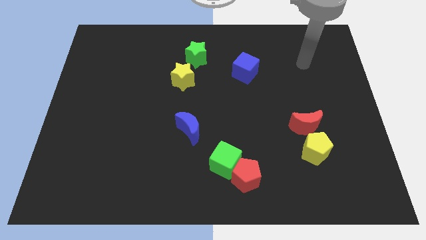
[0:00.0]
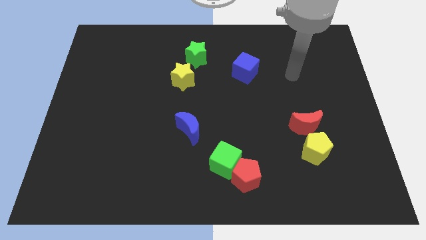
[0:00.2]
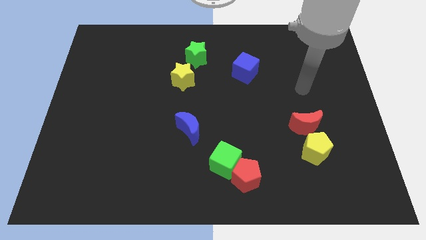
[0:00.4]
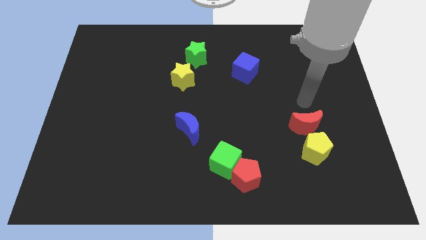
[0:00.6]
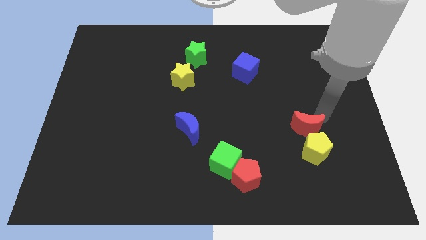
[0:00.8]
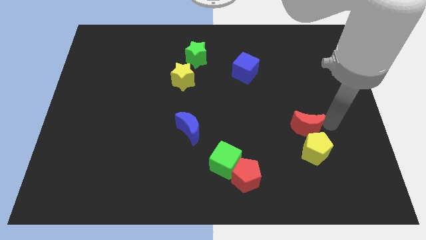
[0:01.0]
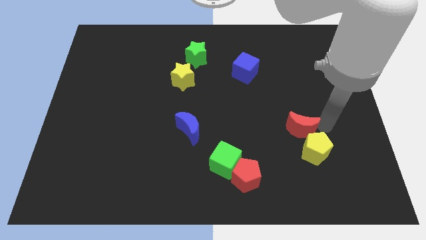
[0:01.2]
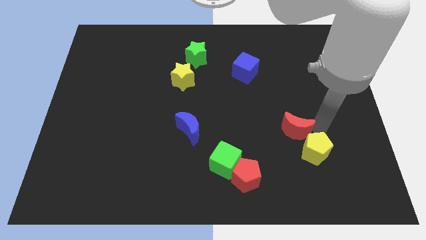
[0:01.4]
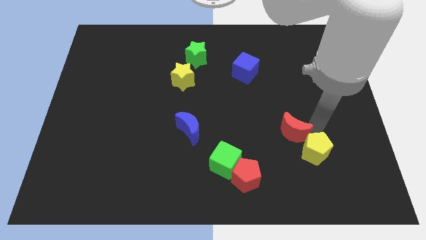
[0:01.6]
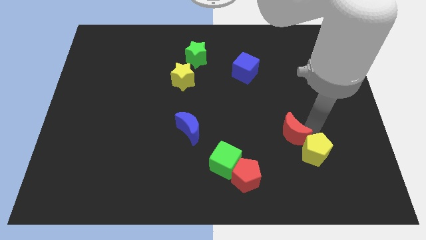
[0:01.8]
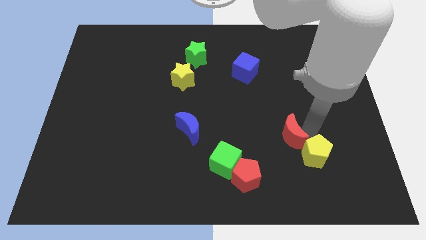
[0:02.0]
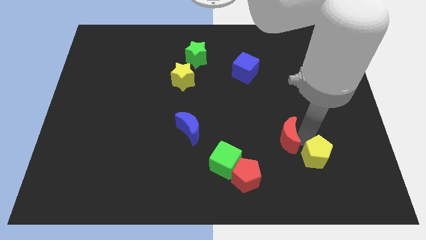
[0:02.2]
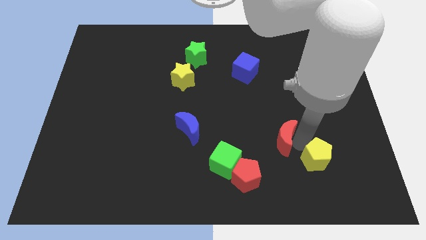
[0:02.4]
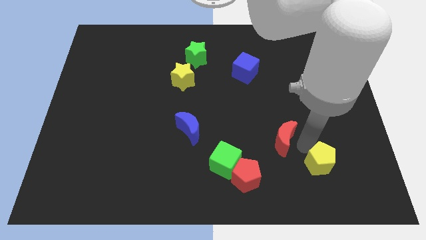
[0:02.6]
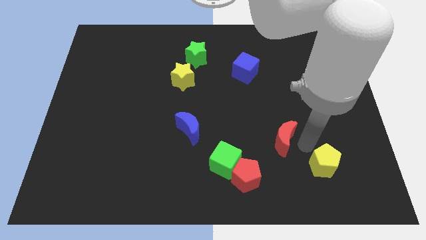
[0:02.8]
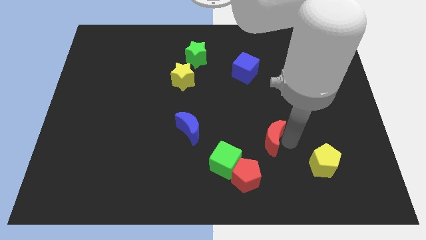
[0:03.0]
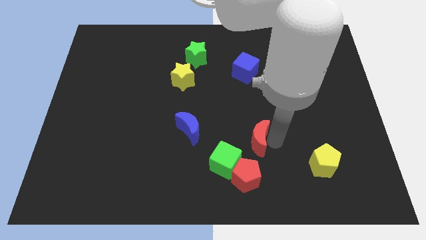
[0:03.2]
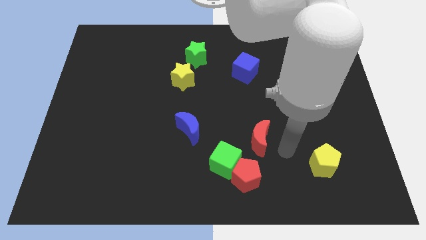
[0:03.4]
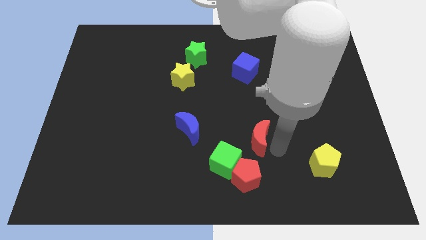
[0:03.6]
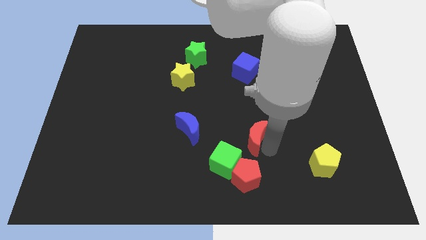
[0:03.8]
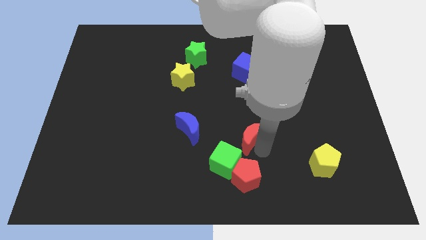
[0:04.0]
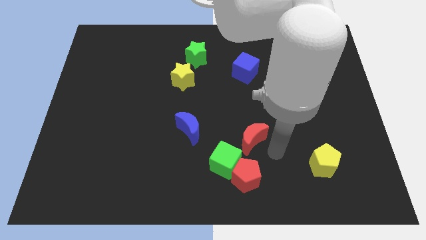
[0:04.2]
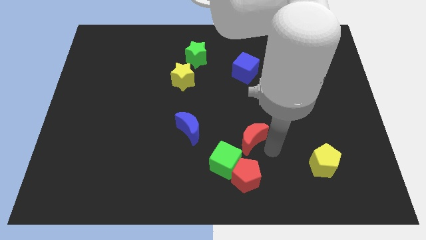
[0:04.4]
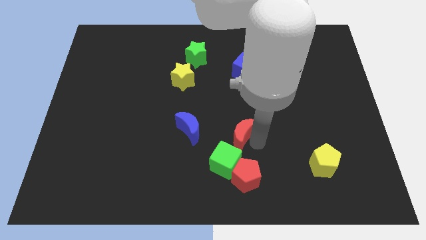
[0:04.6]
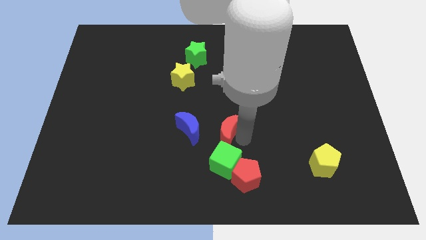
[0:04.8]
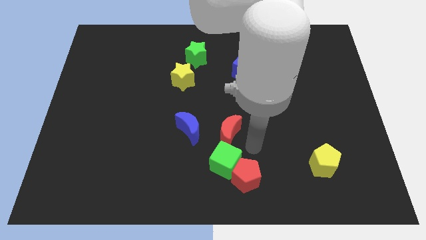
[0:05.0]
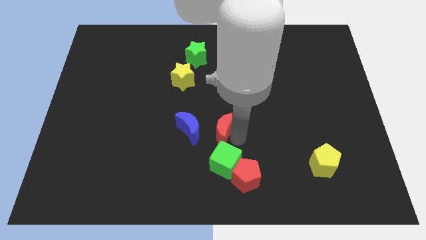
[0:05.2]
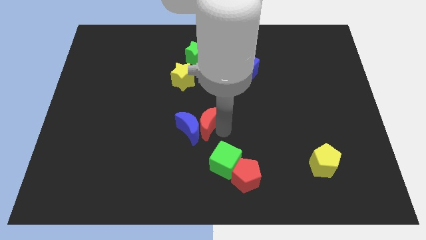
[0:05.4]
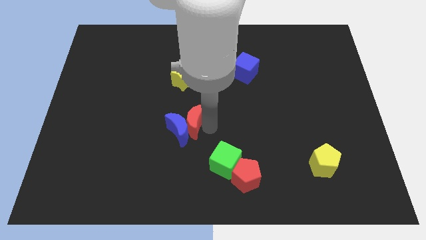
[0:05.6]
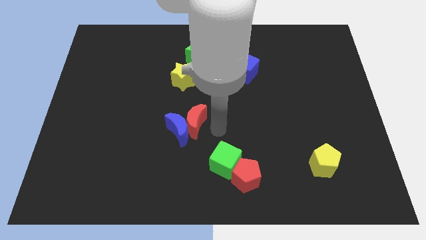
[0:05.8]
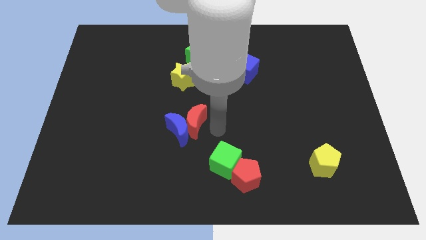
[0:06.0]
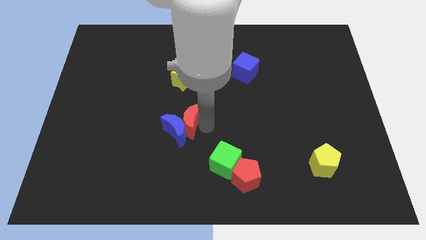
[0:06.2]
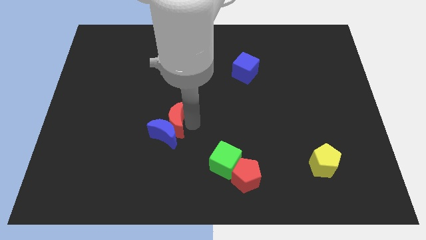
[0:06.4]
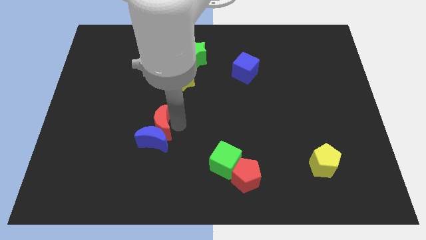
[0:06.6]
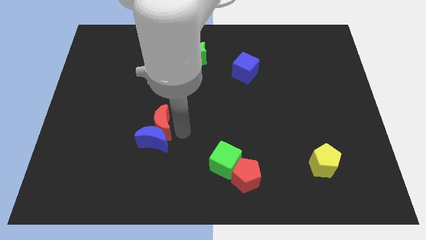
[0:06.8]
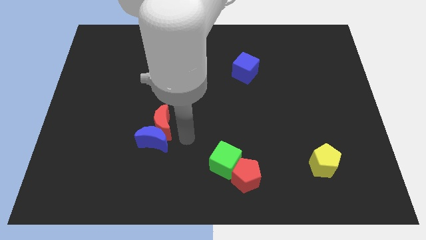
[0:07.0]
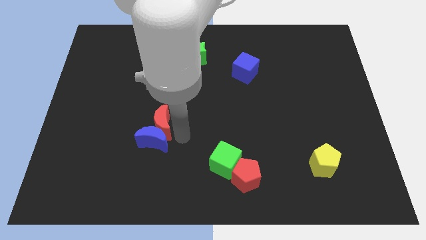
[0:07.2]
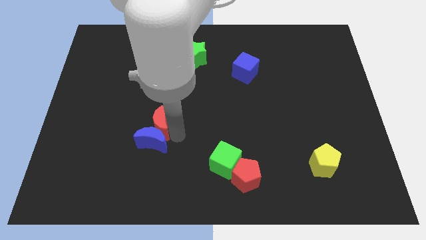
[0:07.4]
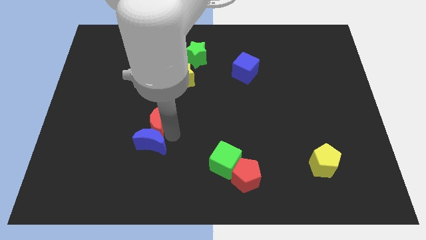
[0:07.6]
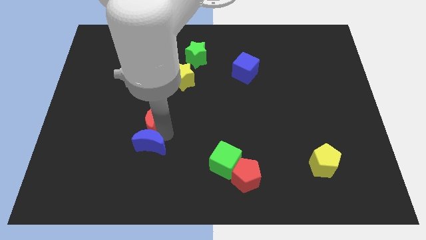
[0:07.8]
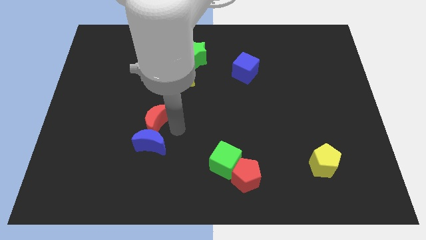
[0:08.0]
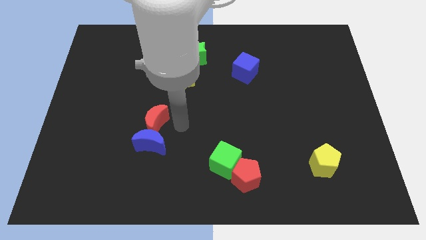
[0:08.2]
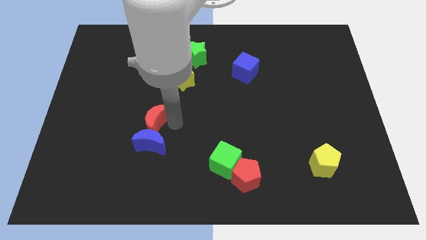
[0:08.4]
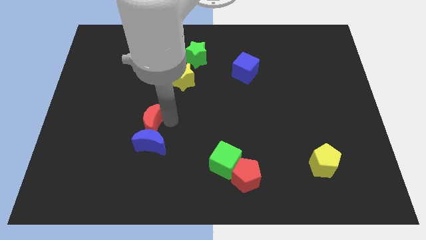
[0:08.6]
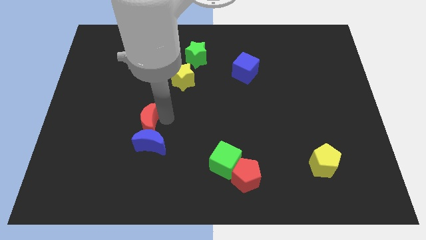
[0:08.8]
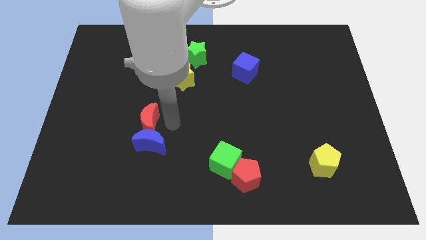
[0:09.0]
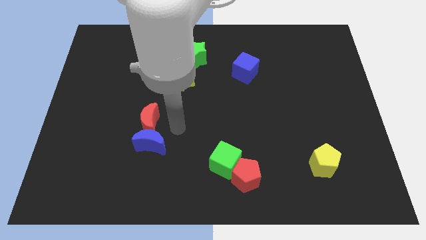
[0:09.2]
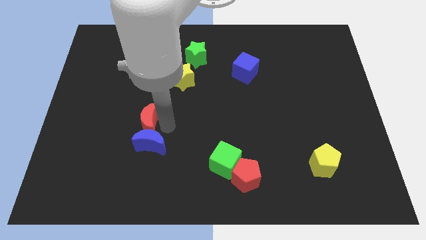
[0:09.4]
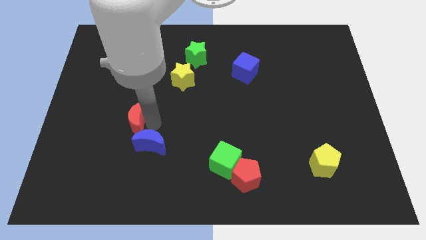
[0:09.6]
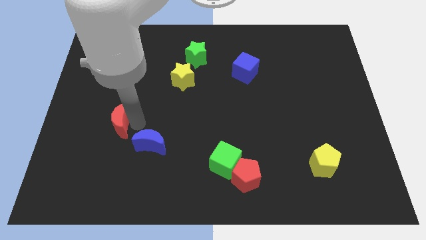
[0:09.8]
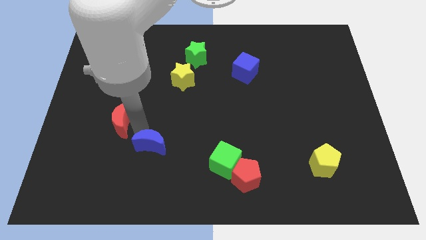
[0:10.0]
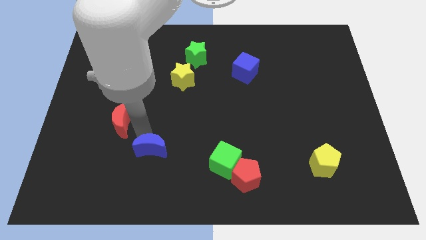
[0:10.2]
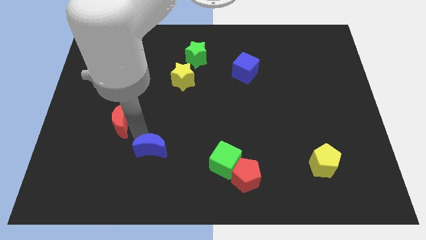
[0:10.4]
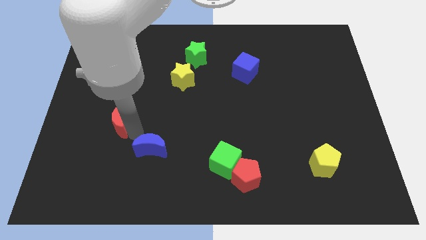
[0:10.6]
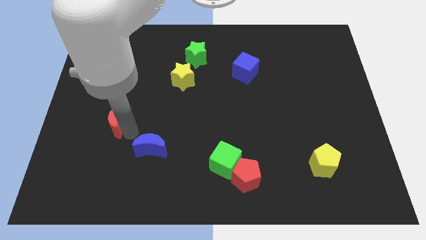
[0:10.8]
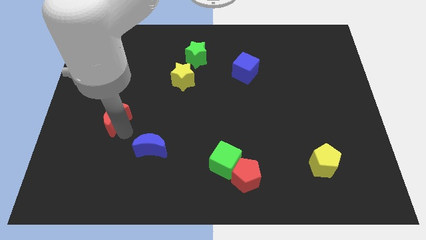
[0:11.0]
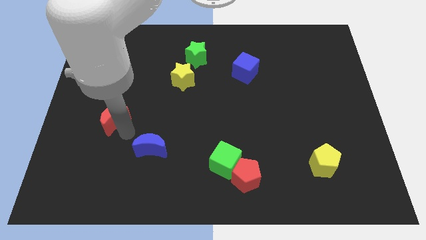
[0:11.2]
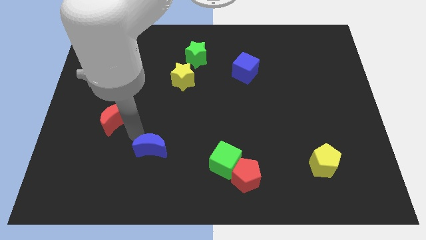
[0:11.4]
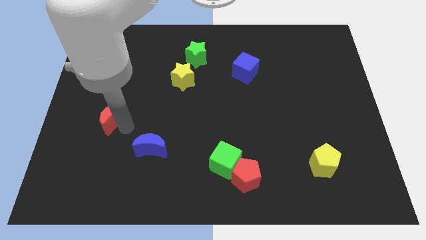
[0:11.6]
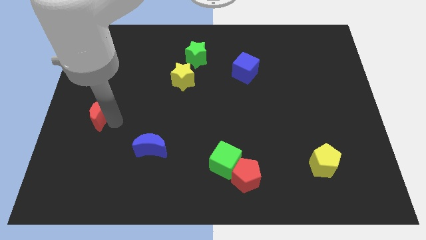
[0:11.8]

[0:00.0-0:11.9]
slide the red moon to the left side of the board

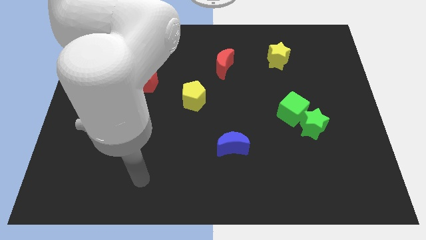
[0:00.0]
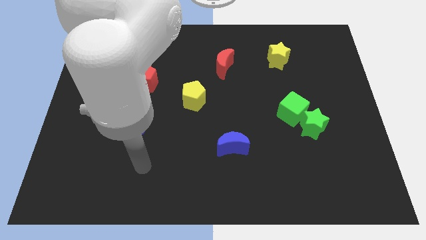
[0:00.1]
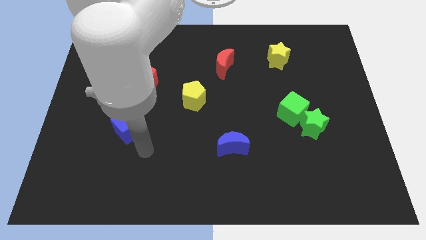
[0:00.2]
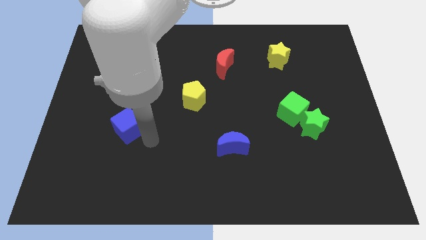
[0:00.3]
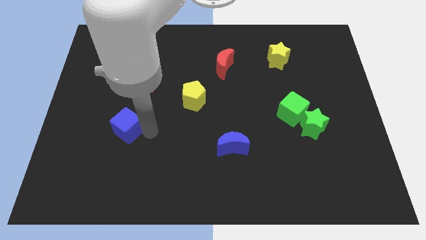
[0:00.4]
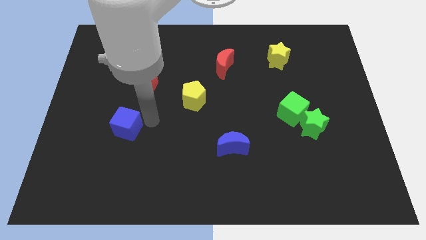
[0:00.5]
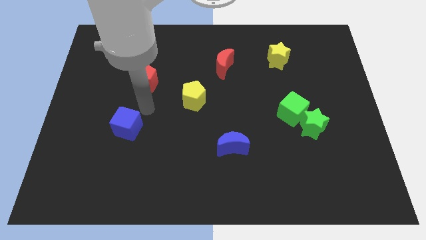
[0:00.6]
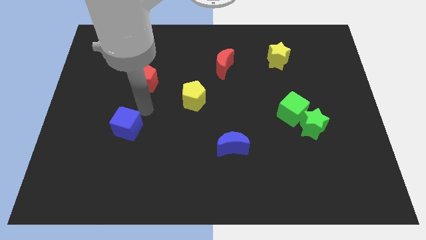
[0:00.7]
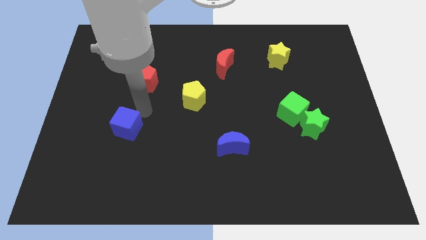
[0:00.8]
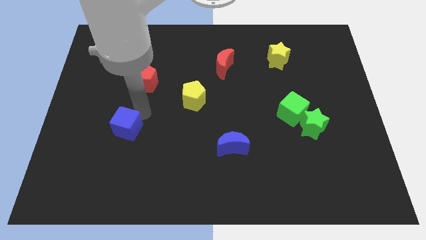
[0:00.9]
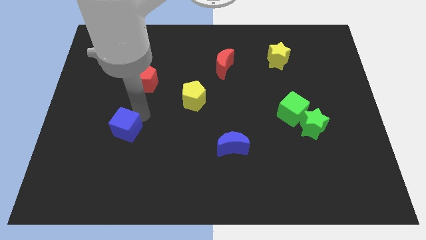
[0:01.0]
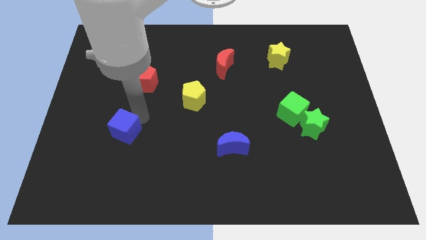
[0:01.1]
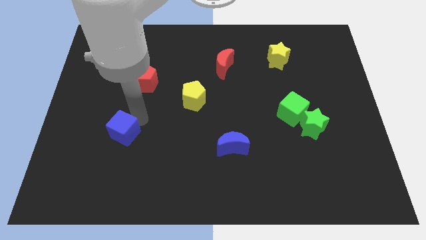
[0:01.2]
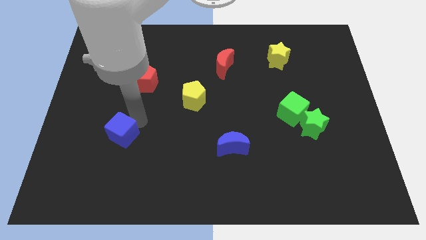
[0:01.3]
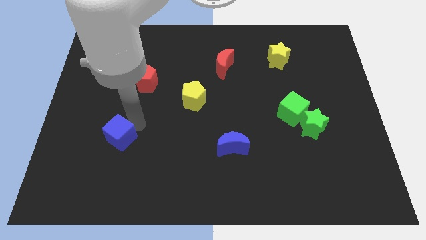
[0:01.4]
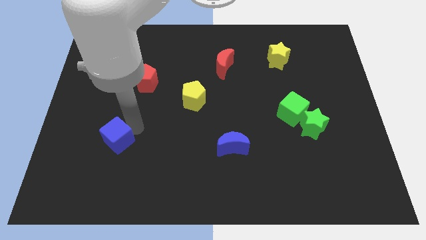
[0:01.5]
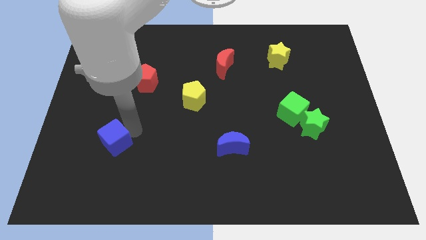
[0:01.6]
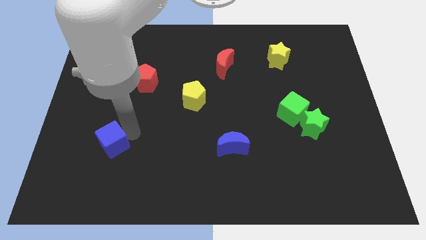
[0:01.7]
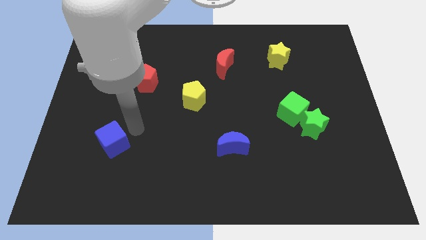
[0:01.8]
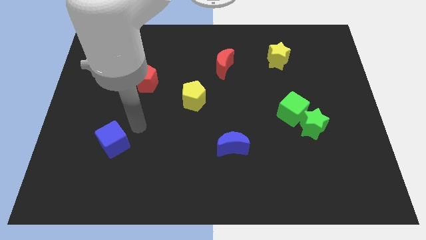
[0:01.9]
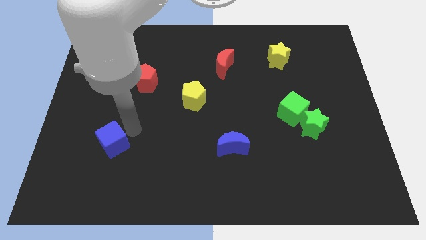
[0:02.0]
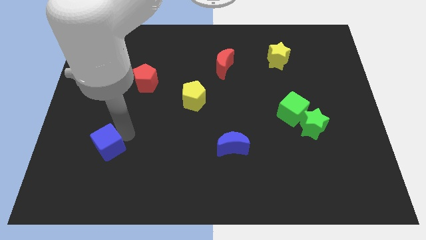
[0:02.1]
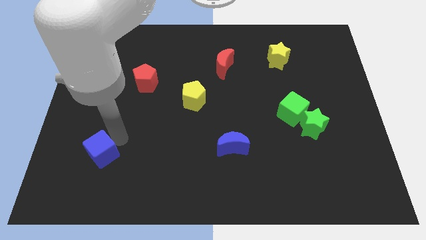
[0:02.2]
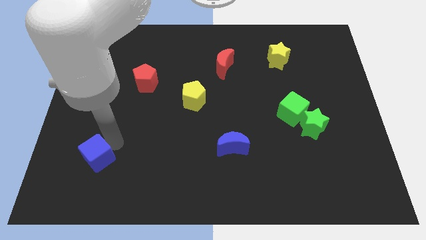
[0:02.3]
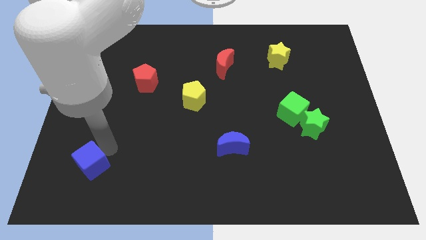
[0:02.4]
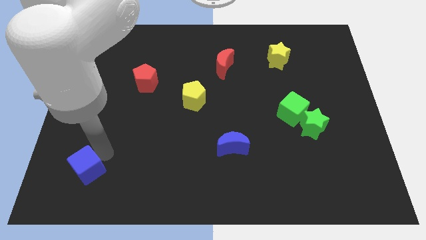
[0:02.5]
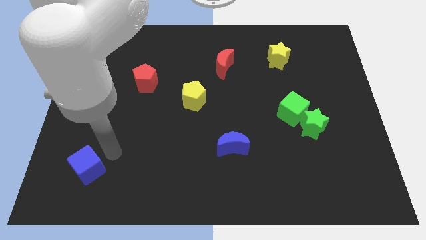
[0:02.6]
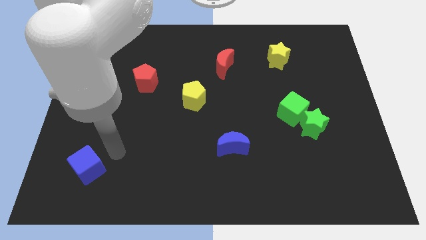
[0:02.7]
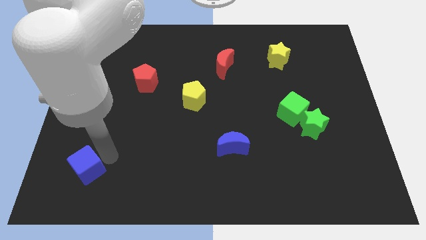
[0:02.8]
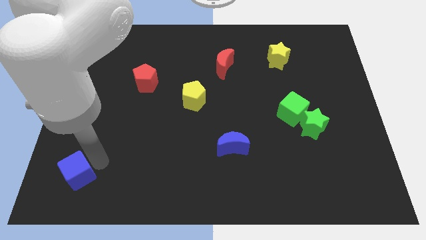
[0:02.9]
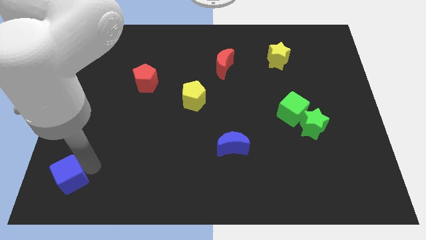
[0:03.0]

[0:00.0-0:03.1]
move the blue cube to the lower left corner
